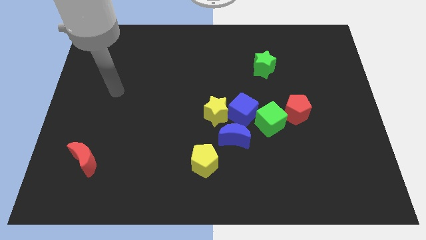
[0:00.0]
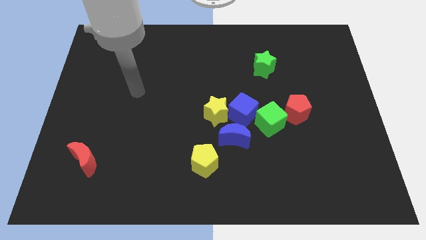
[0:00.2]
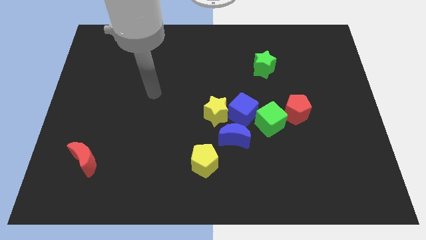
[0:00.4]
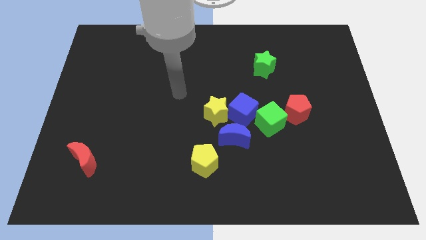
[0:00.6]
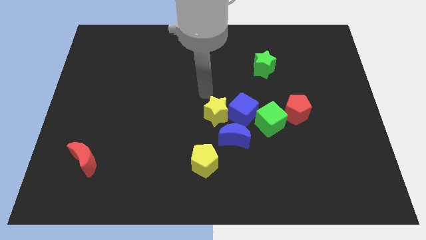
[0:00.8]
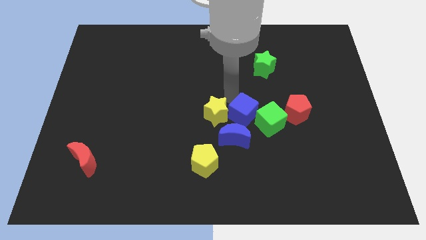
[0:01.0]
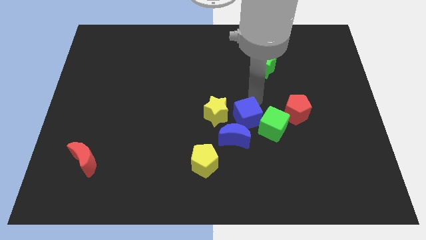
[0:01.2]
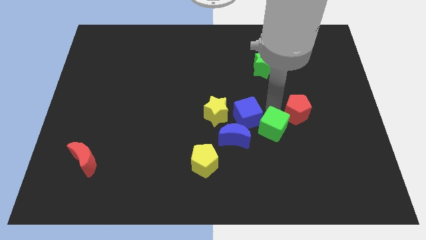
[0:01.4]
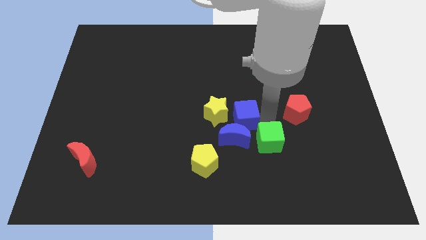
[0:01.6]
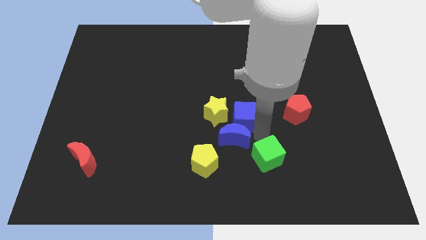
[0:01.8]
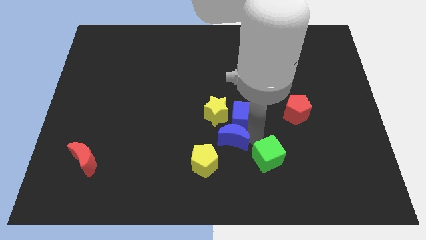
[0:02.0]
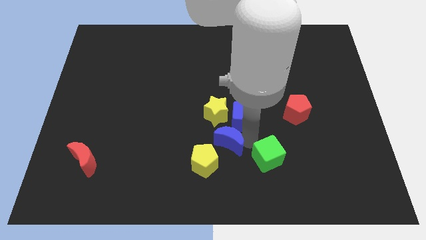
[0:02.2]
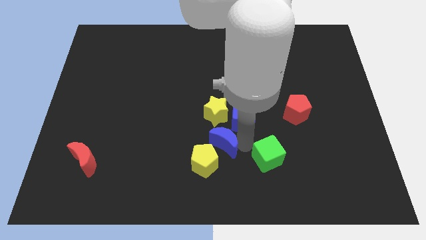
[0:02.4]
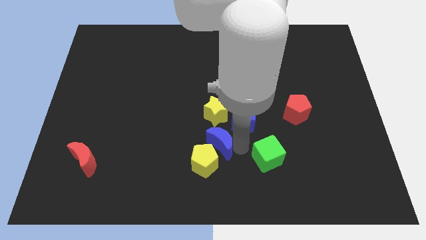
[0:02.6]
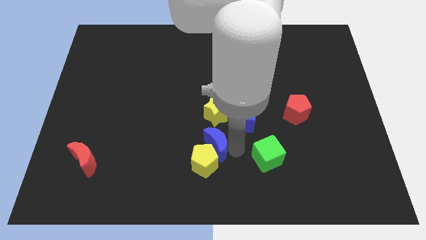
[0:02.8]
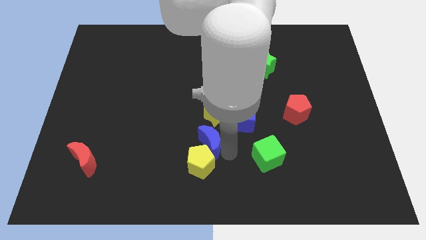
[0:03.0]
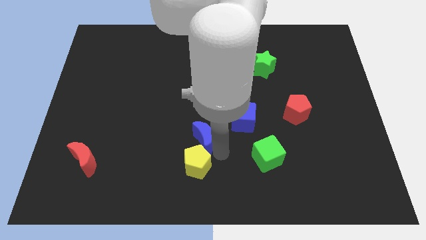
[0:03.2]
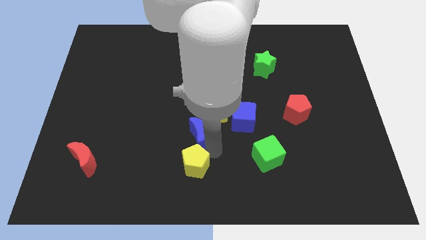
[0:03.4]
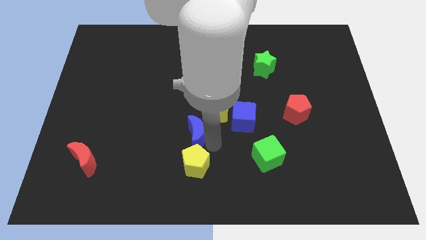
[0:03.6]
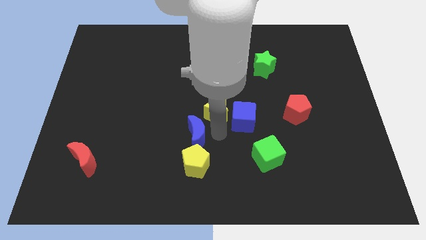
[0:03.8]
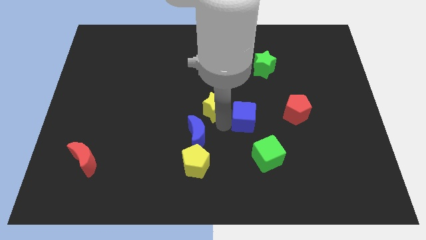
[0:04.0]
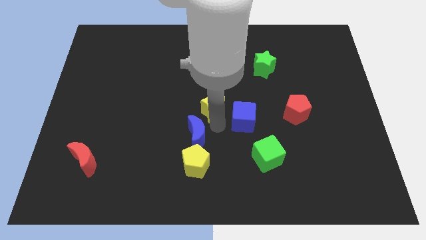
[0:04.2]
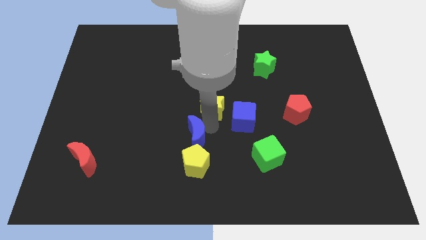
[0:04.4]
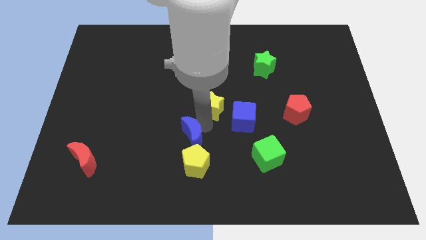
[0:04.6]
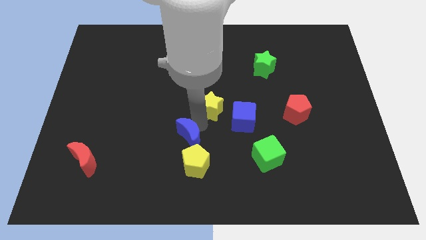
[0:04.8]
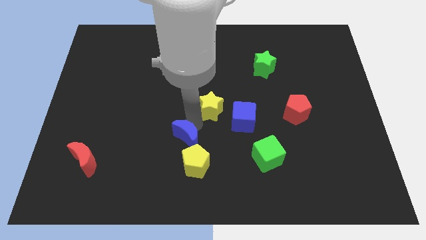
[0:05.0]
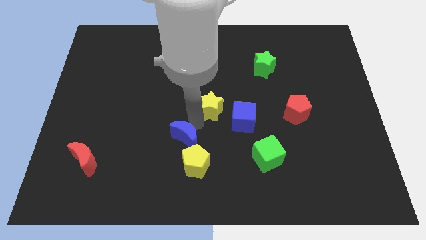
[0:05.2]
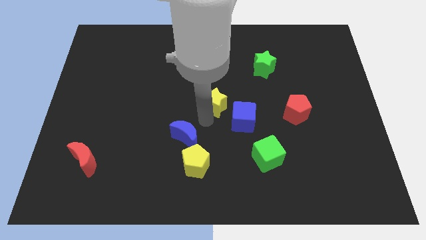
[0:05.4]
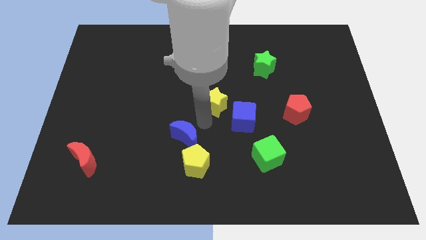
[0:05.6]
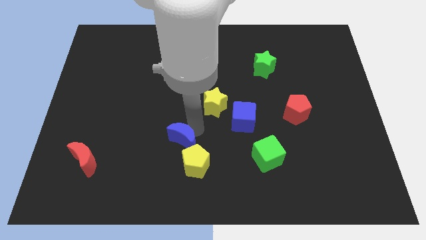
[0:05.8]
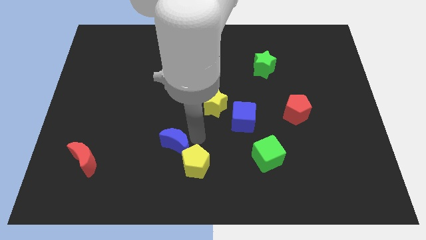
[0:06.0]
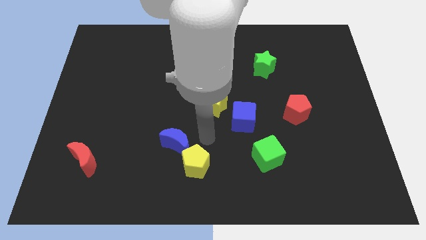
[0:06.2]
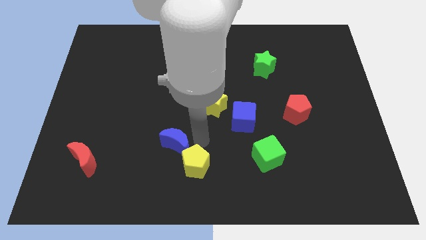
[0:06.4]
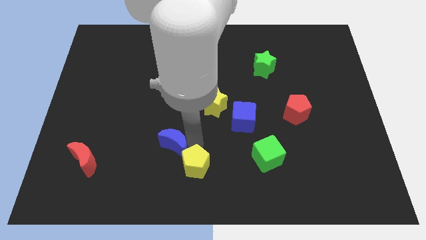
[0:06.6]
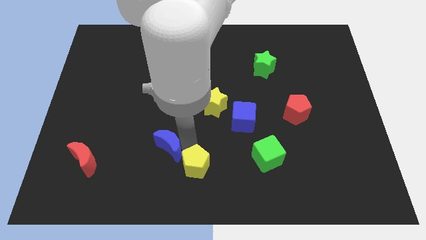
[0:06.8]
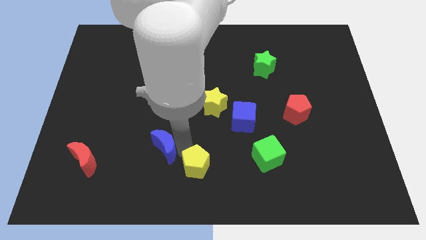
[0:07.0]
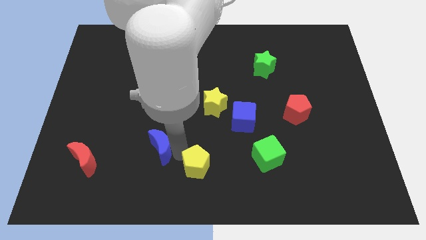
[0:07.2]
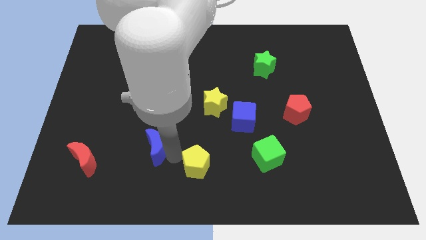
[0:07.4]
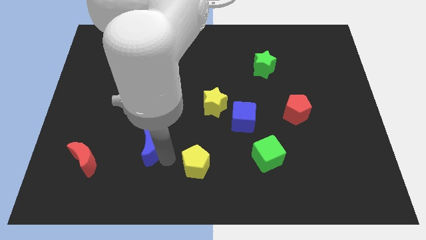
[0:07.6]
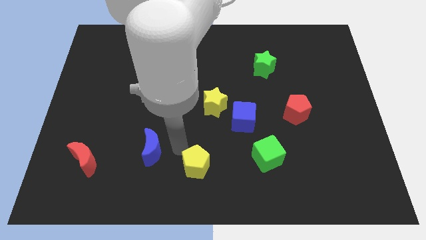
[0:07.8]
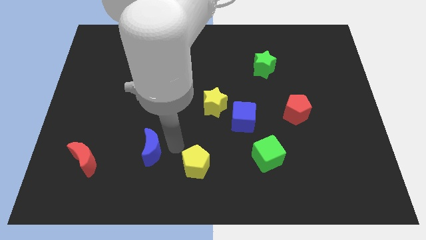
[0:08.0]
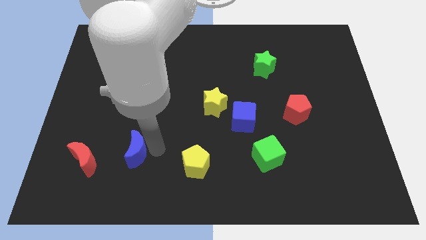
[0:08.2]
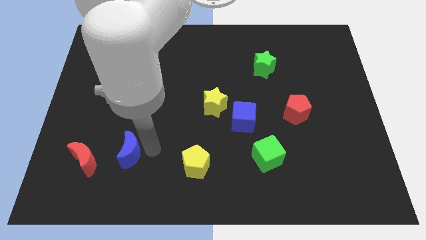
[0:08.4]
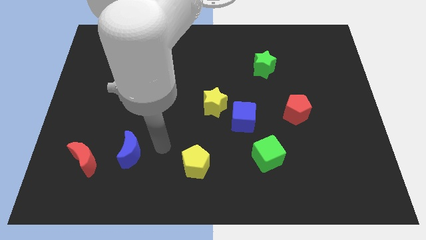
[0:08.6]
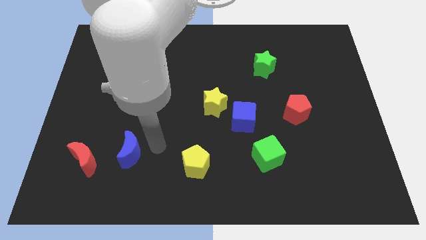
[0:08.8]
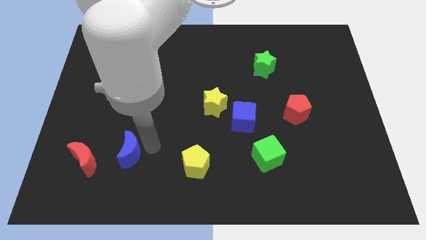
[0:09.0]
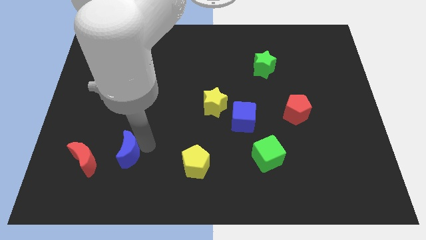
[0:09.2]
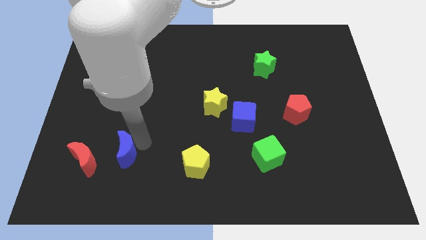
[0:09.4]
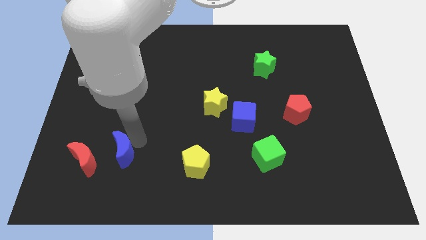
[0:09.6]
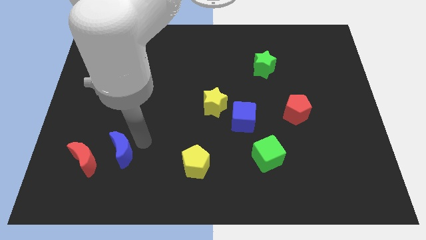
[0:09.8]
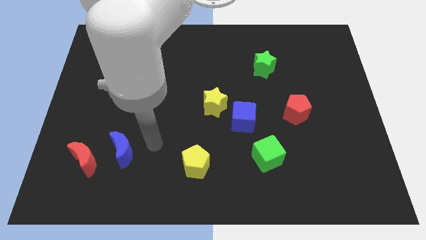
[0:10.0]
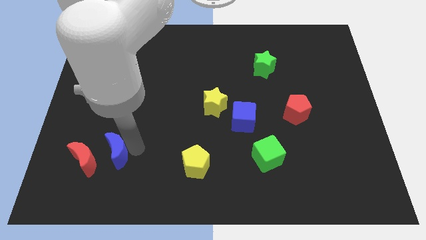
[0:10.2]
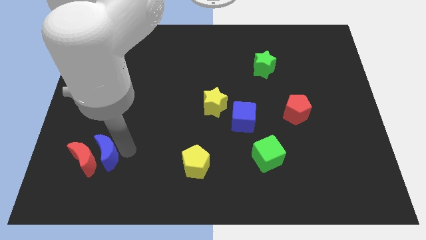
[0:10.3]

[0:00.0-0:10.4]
slide the blue moon close to the red moon

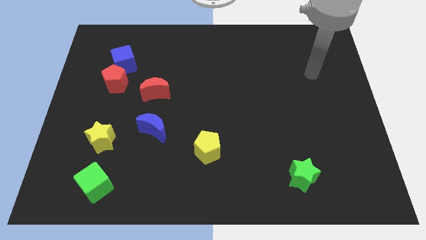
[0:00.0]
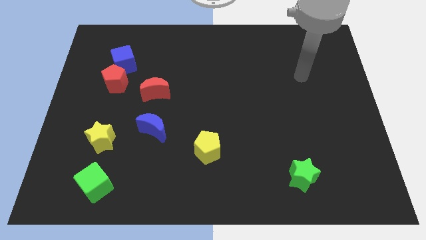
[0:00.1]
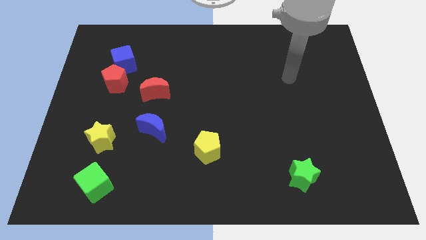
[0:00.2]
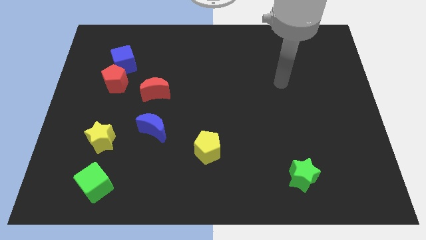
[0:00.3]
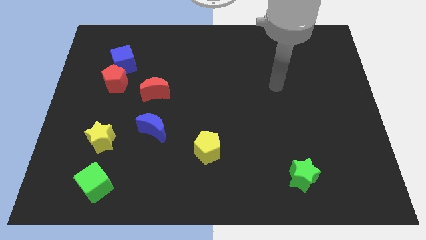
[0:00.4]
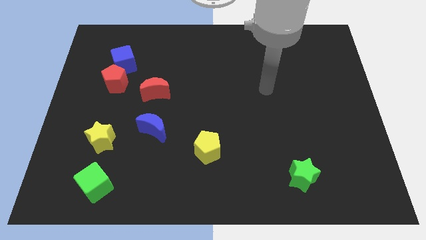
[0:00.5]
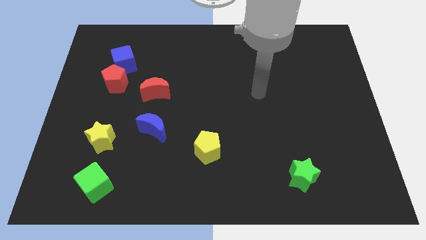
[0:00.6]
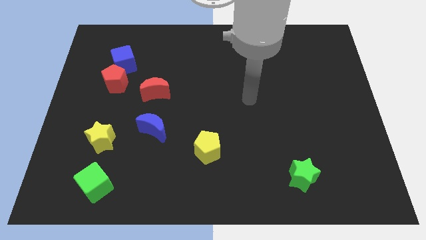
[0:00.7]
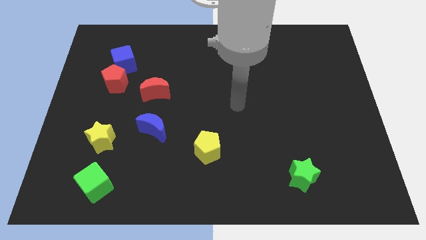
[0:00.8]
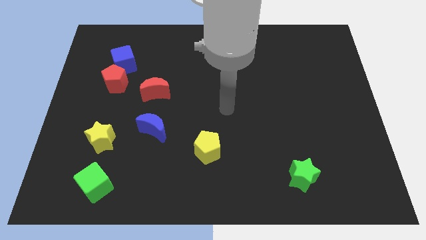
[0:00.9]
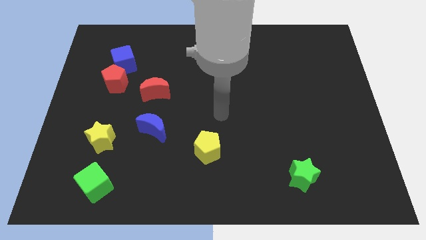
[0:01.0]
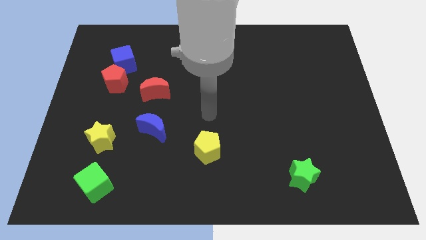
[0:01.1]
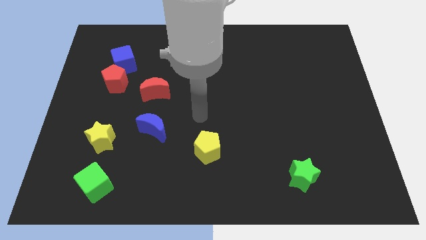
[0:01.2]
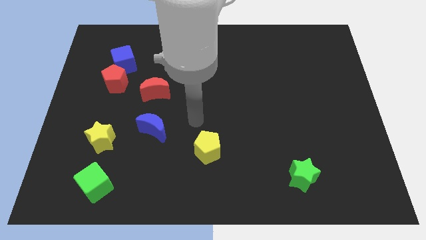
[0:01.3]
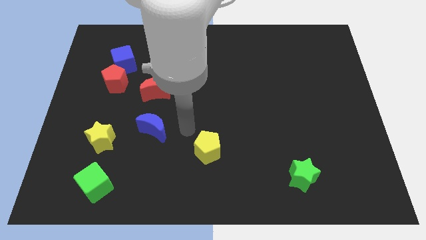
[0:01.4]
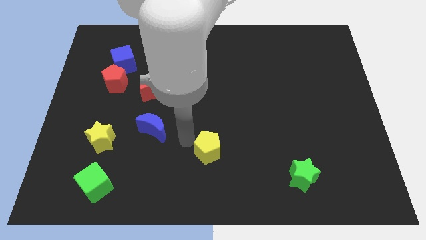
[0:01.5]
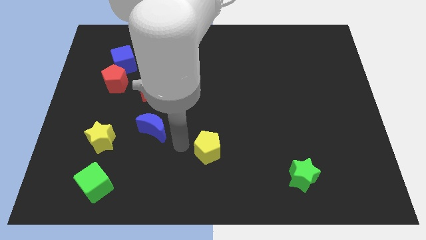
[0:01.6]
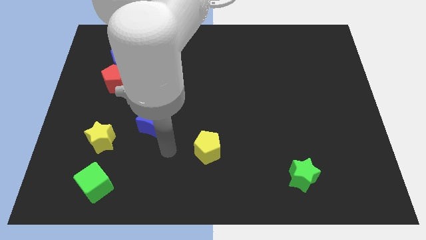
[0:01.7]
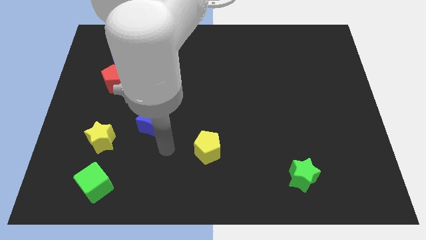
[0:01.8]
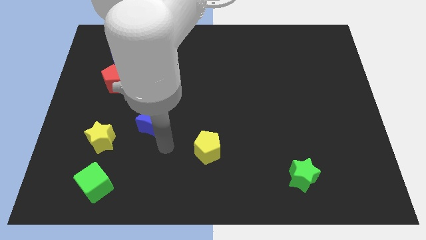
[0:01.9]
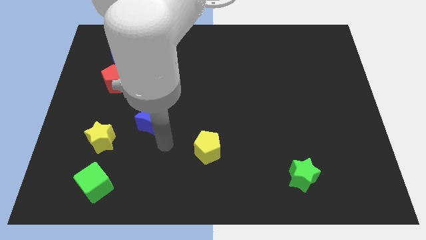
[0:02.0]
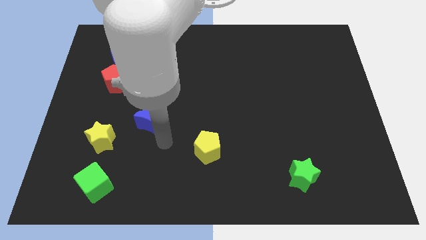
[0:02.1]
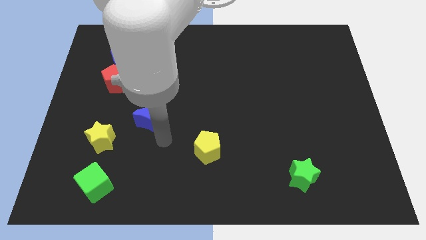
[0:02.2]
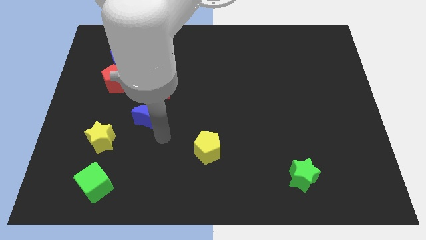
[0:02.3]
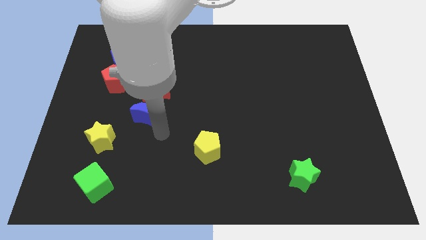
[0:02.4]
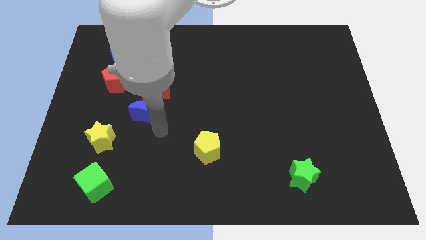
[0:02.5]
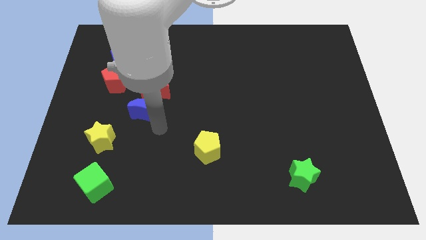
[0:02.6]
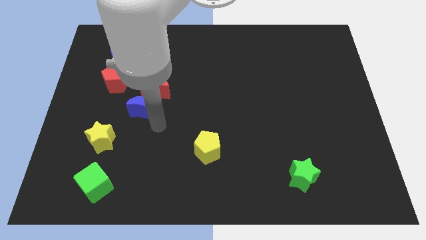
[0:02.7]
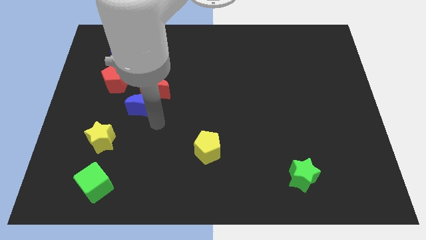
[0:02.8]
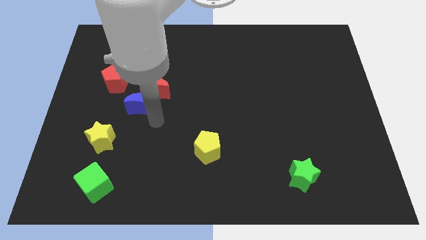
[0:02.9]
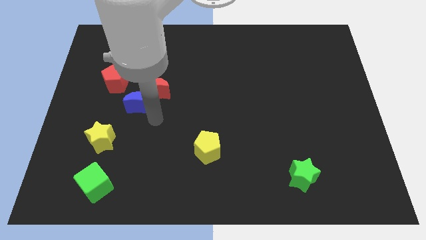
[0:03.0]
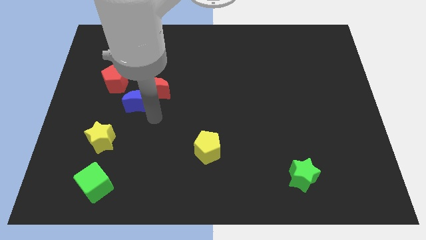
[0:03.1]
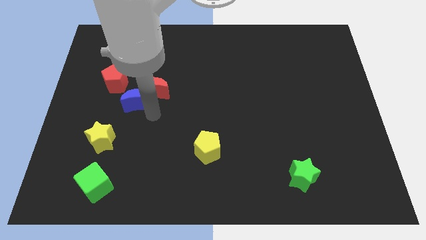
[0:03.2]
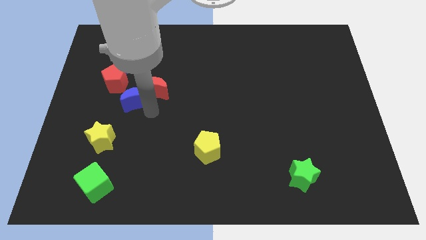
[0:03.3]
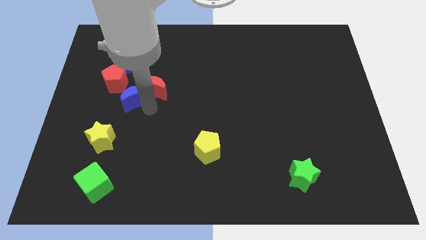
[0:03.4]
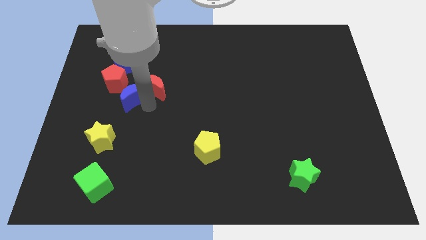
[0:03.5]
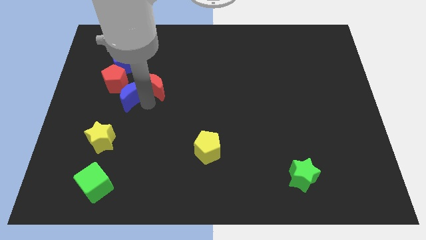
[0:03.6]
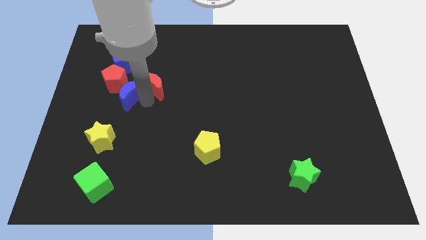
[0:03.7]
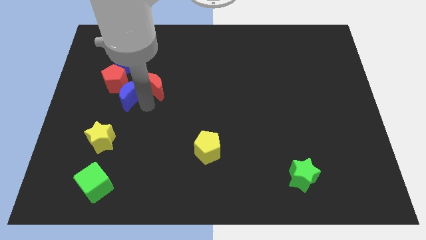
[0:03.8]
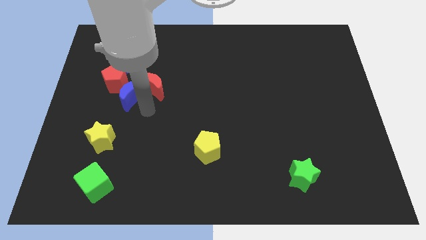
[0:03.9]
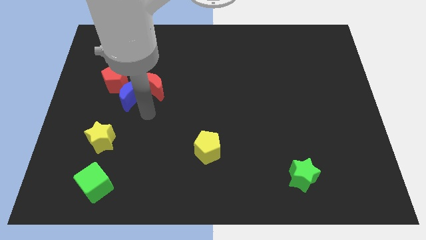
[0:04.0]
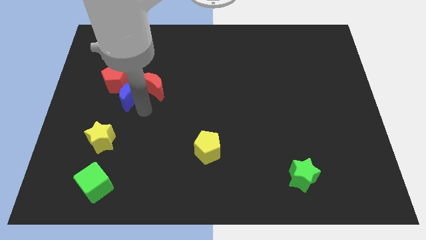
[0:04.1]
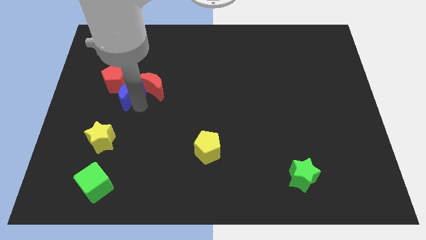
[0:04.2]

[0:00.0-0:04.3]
push the blue moon close to the red pentagon
